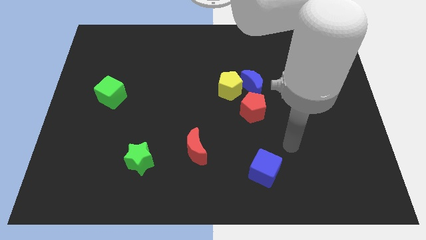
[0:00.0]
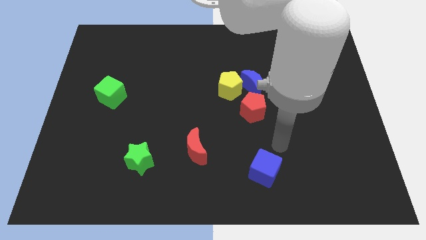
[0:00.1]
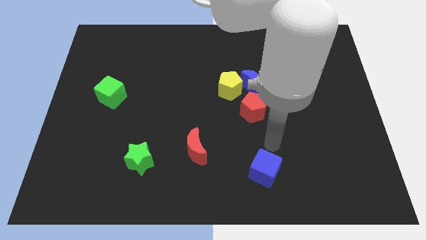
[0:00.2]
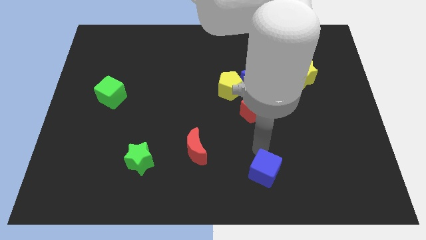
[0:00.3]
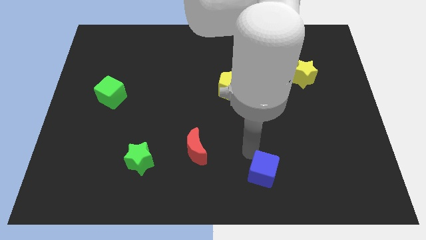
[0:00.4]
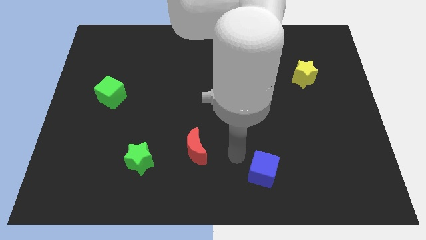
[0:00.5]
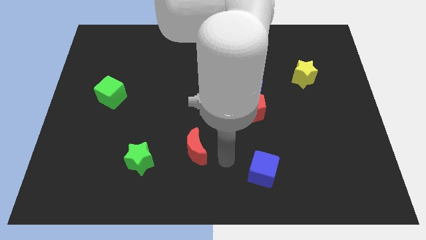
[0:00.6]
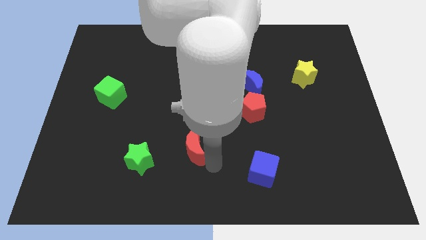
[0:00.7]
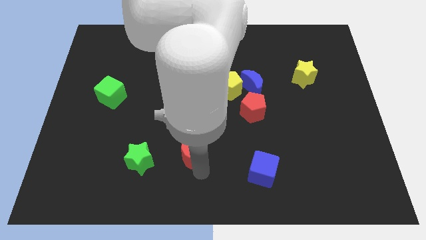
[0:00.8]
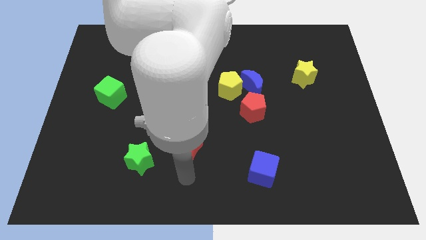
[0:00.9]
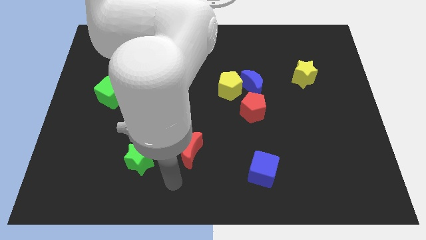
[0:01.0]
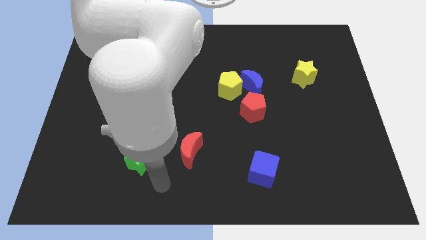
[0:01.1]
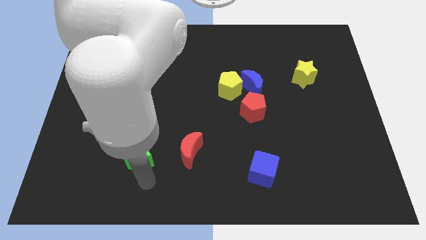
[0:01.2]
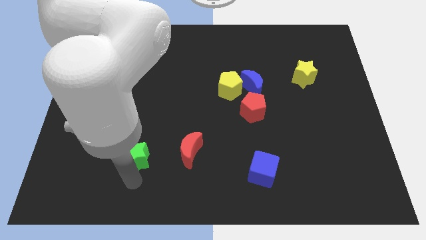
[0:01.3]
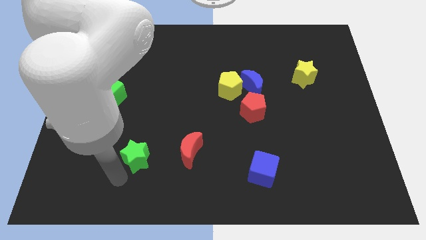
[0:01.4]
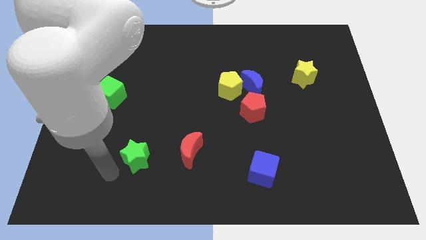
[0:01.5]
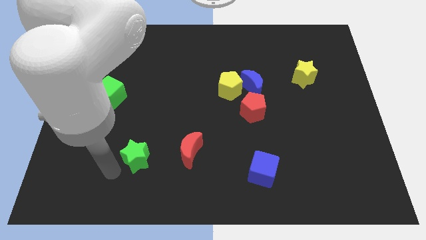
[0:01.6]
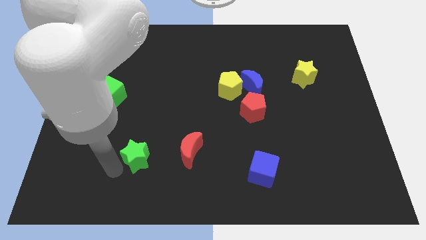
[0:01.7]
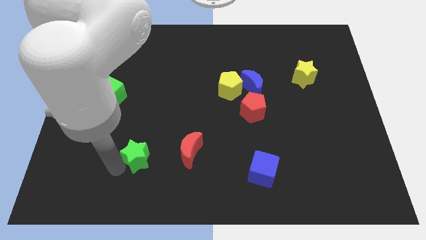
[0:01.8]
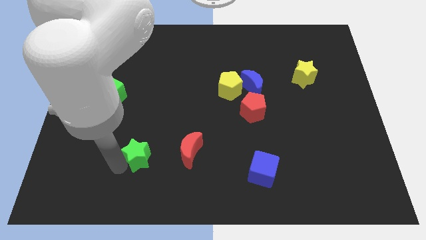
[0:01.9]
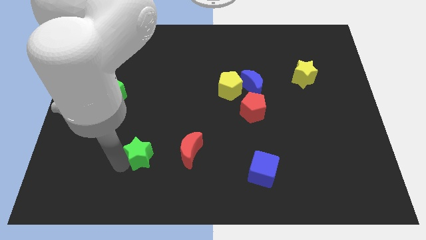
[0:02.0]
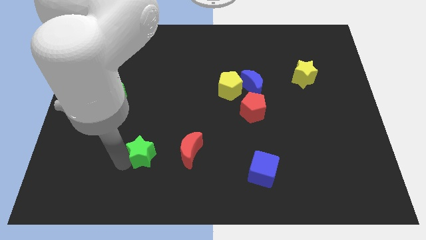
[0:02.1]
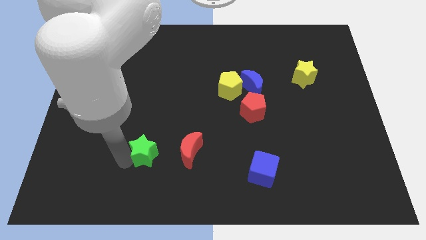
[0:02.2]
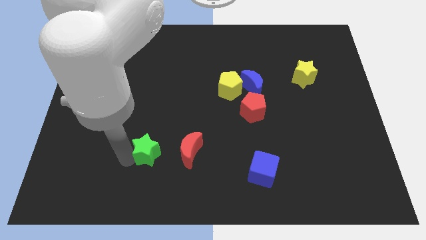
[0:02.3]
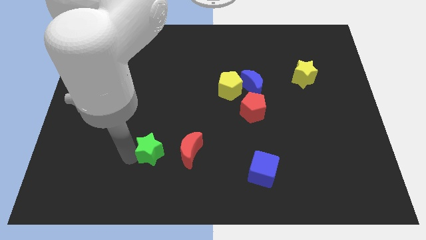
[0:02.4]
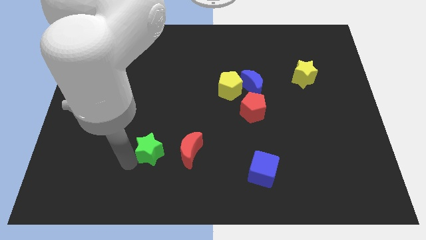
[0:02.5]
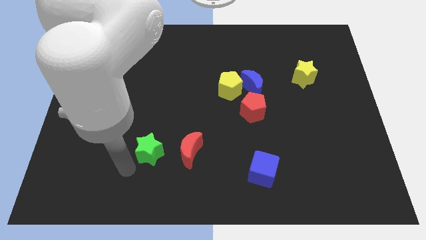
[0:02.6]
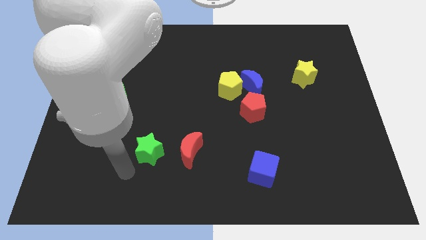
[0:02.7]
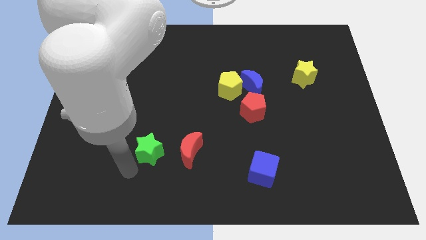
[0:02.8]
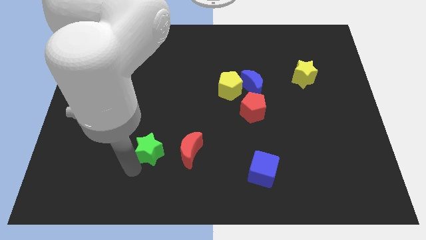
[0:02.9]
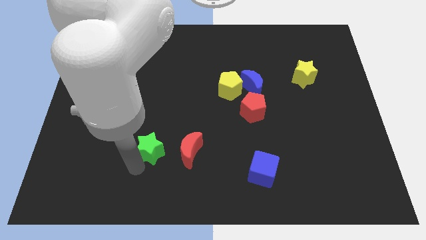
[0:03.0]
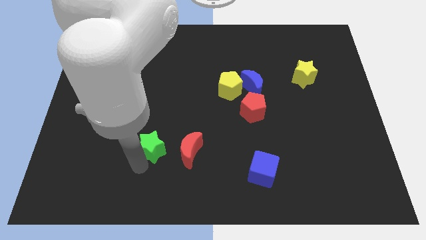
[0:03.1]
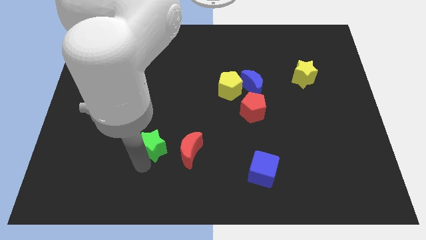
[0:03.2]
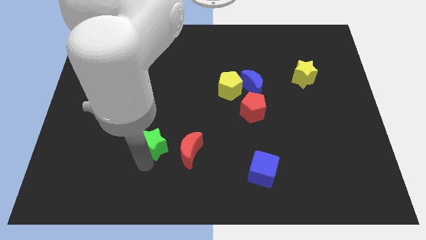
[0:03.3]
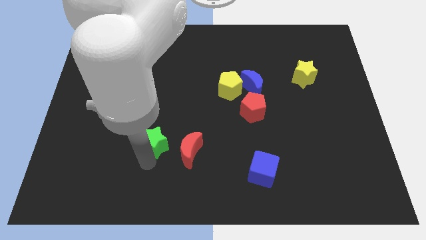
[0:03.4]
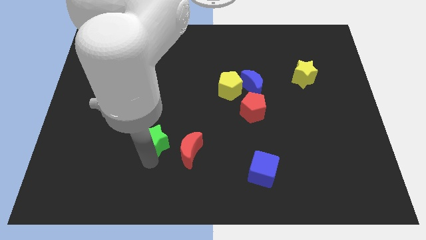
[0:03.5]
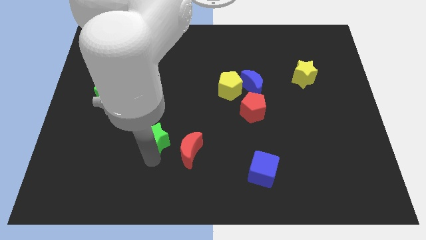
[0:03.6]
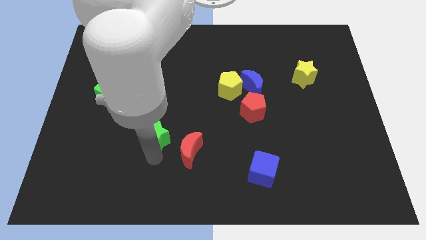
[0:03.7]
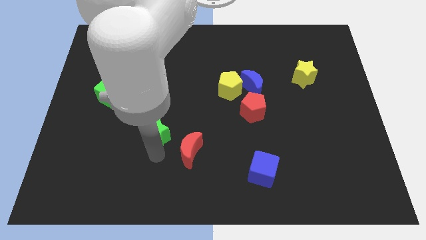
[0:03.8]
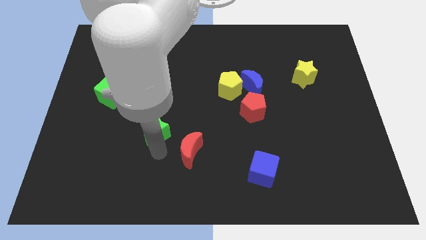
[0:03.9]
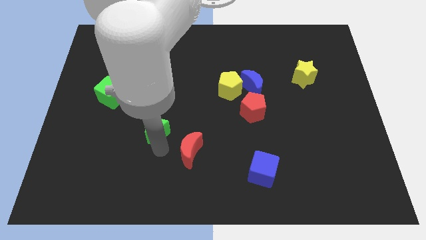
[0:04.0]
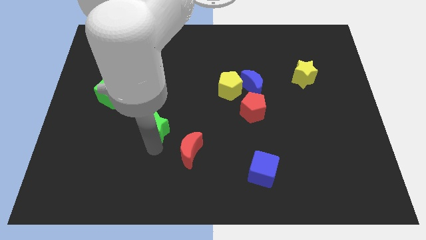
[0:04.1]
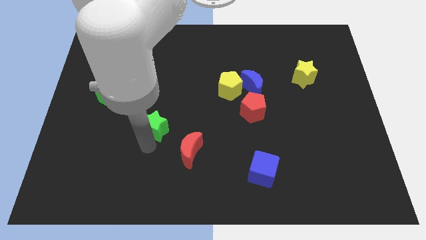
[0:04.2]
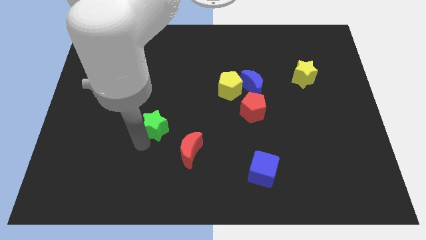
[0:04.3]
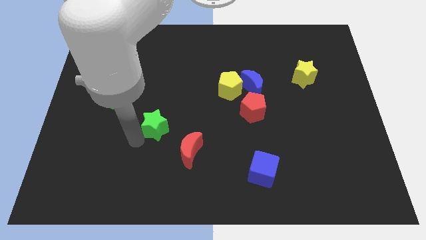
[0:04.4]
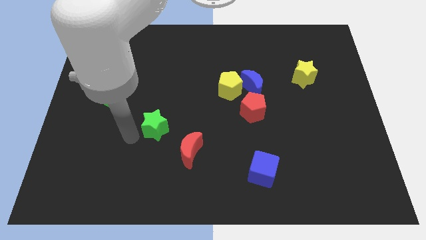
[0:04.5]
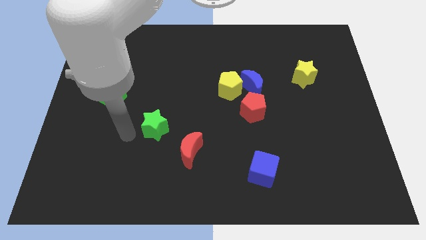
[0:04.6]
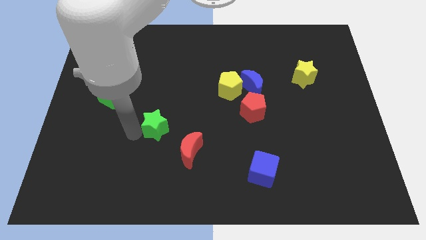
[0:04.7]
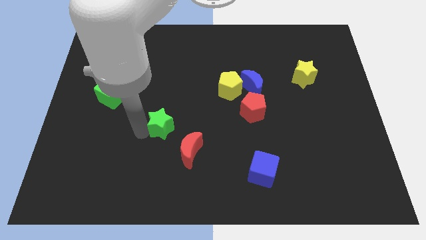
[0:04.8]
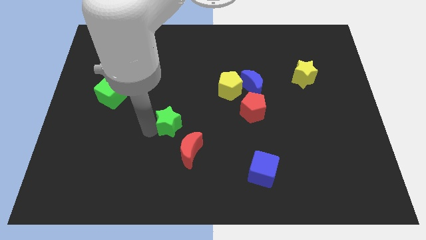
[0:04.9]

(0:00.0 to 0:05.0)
move the green star to the top of the red moon

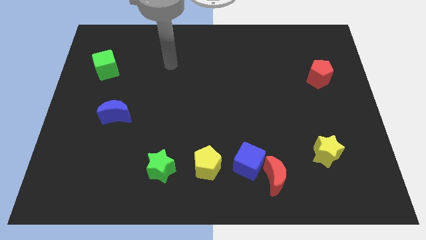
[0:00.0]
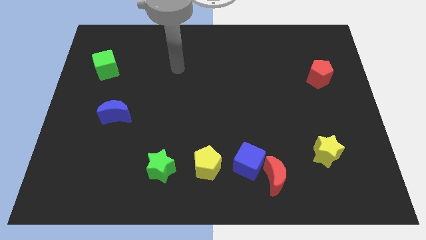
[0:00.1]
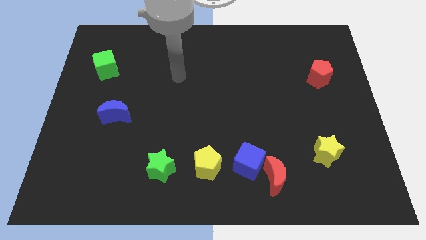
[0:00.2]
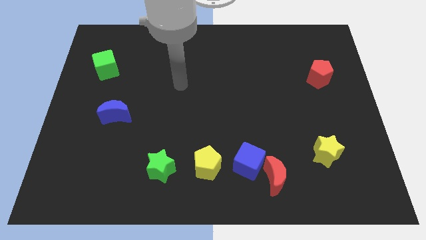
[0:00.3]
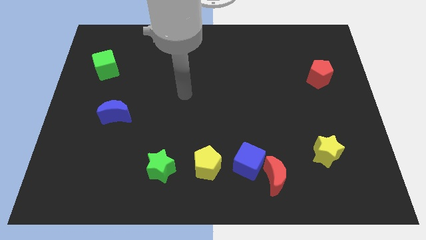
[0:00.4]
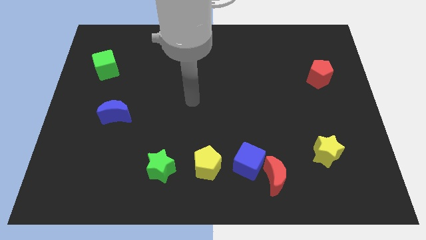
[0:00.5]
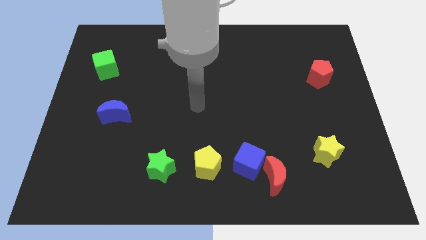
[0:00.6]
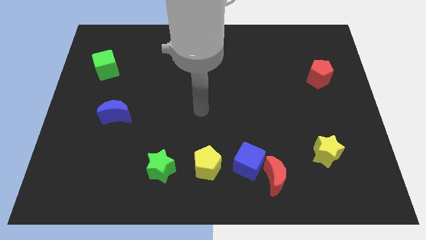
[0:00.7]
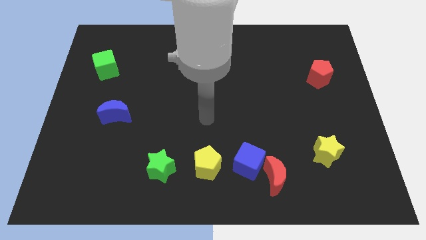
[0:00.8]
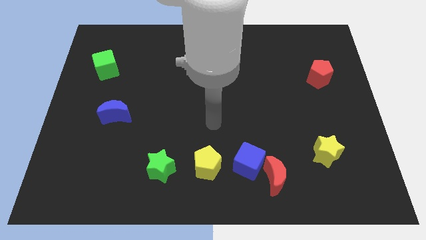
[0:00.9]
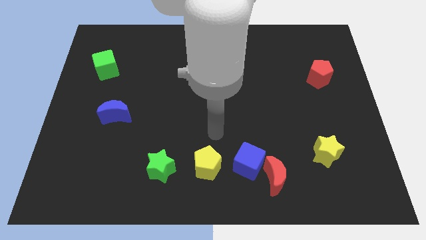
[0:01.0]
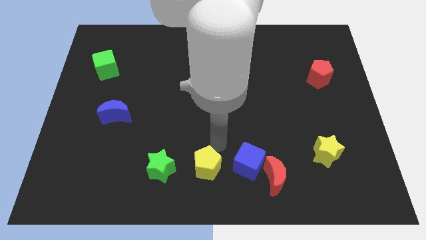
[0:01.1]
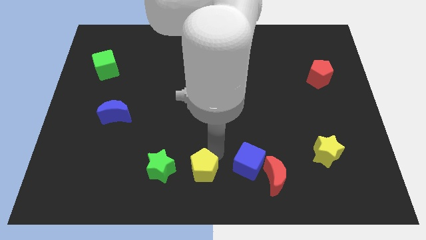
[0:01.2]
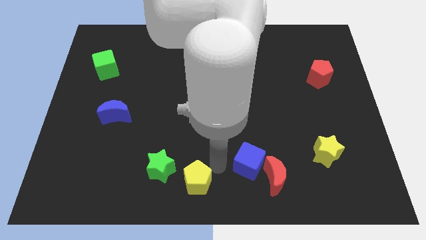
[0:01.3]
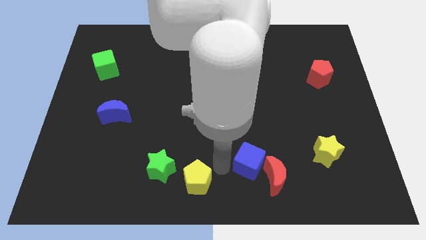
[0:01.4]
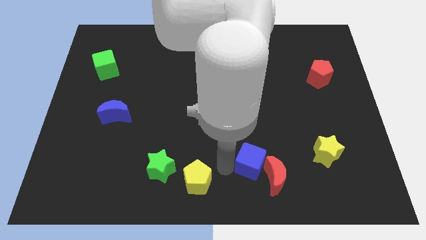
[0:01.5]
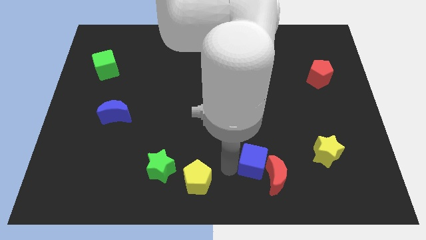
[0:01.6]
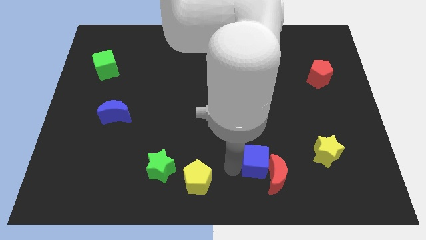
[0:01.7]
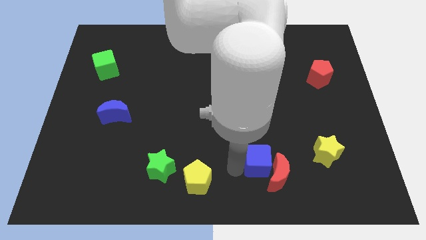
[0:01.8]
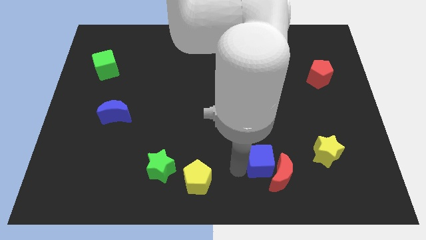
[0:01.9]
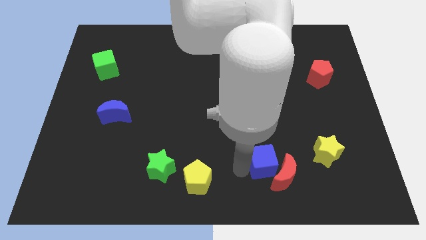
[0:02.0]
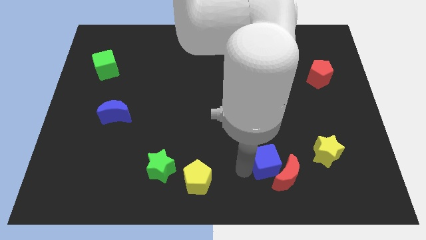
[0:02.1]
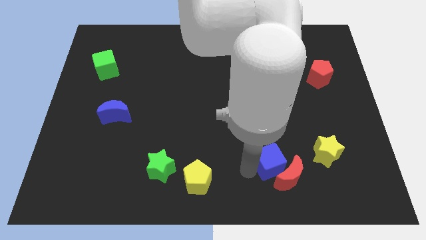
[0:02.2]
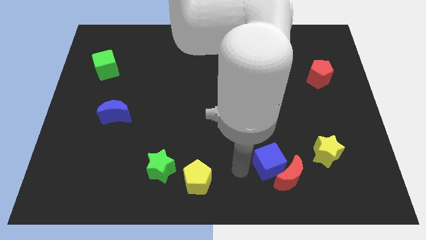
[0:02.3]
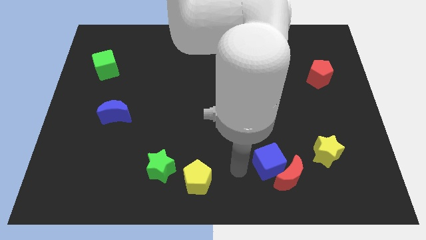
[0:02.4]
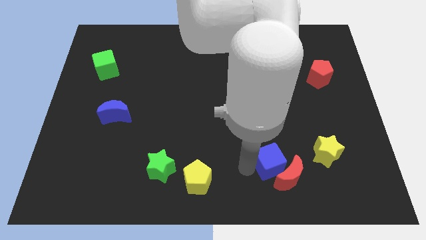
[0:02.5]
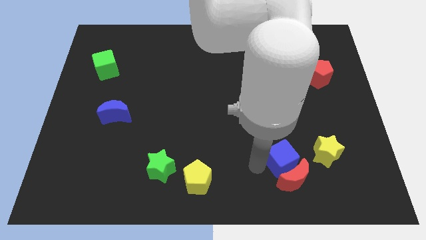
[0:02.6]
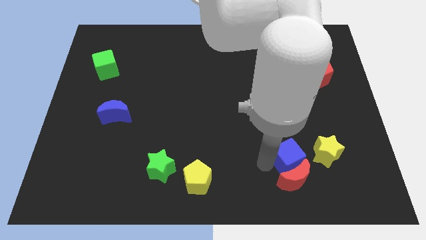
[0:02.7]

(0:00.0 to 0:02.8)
put the blue cube to the top right of the red moon
